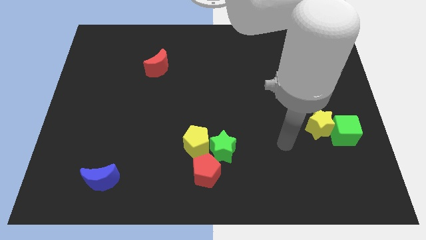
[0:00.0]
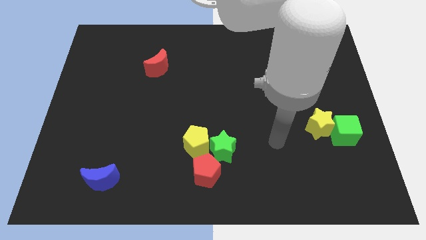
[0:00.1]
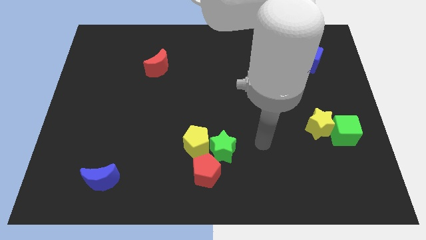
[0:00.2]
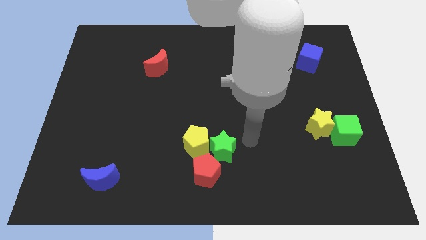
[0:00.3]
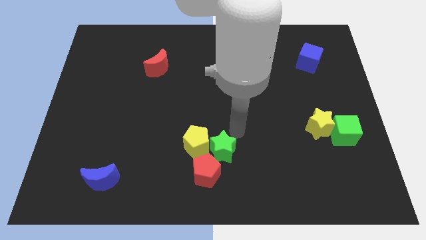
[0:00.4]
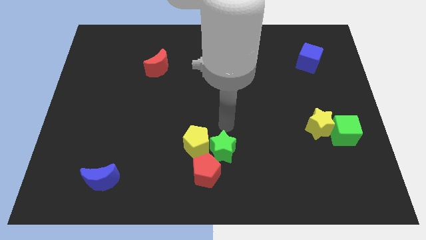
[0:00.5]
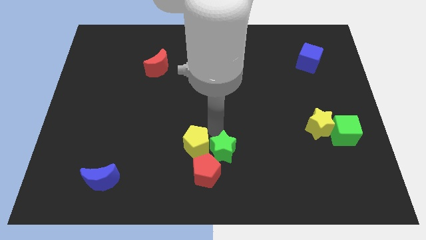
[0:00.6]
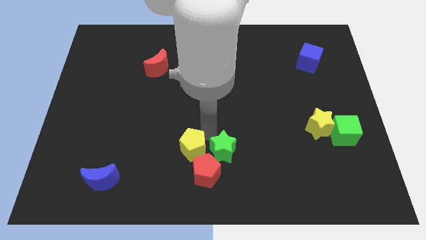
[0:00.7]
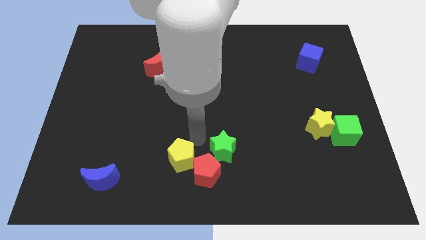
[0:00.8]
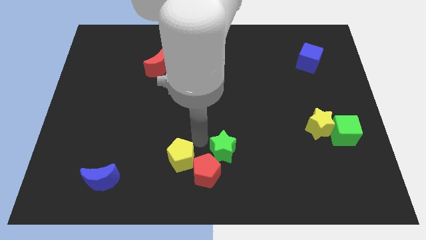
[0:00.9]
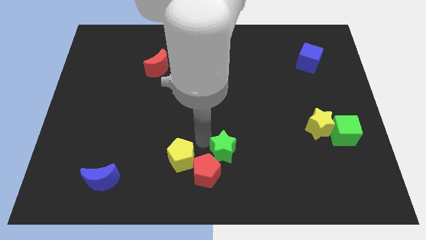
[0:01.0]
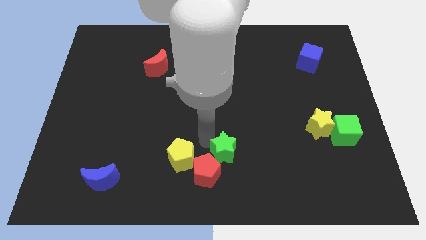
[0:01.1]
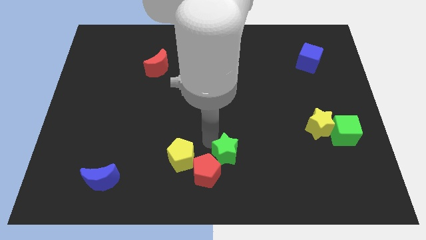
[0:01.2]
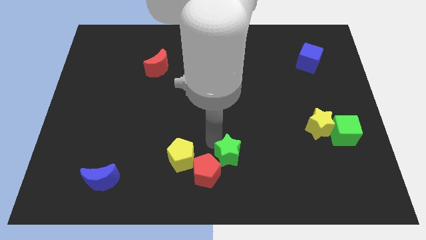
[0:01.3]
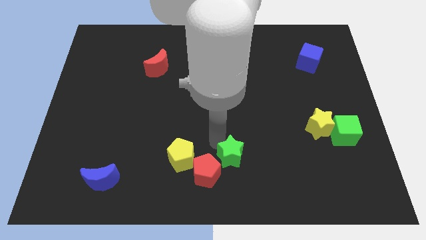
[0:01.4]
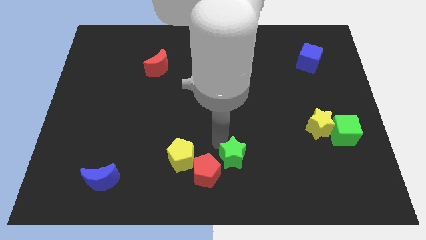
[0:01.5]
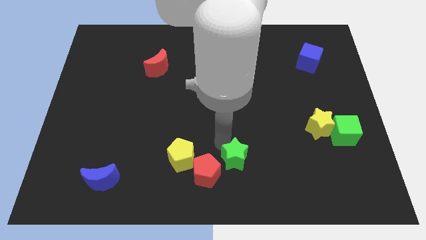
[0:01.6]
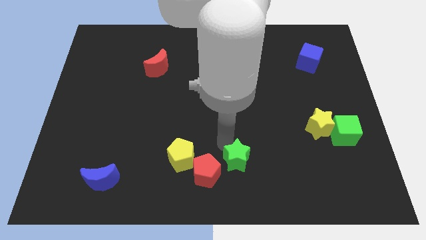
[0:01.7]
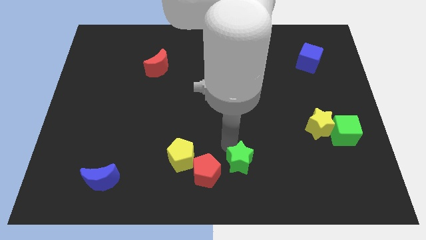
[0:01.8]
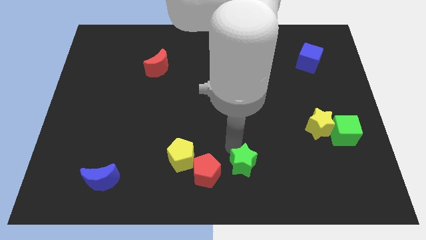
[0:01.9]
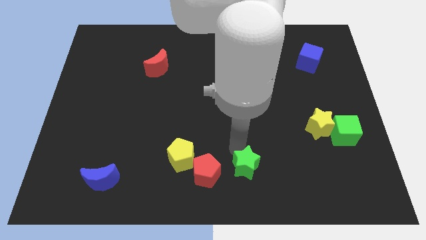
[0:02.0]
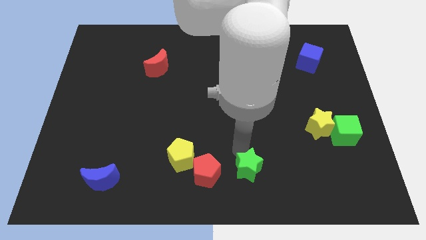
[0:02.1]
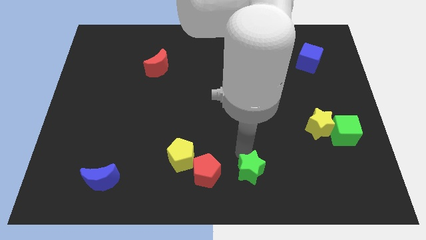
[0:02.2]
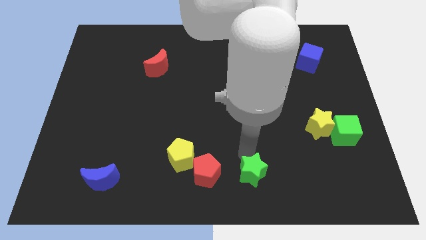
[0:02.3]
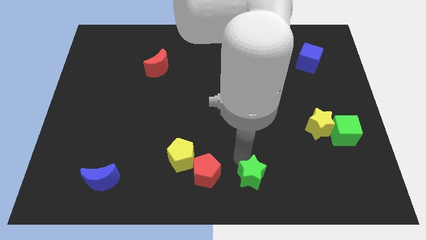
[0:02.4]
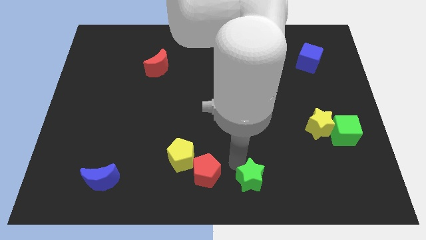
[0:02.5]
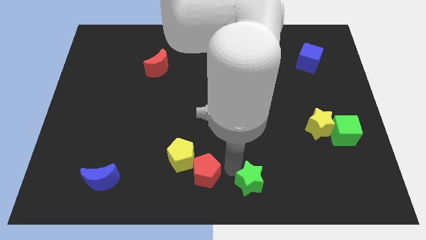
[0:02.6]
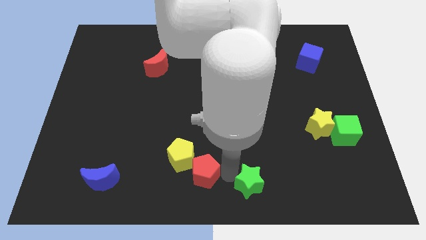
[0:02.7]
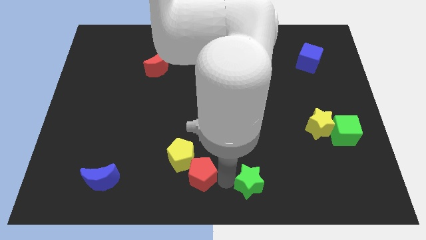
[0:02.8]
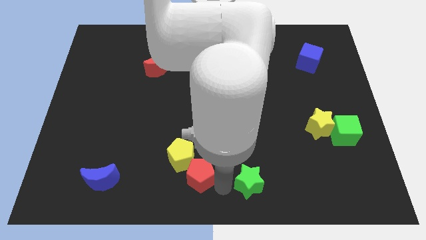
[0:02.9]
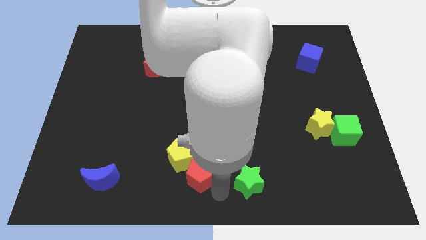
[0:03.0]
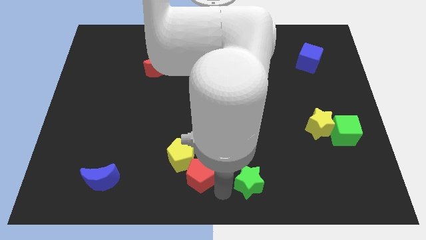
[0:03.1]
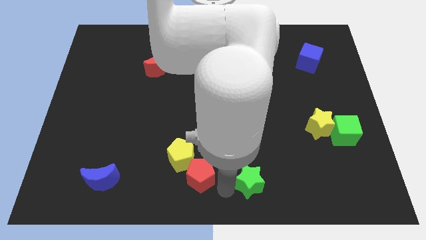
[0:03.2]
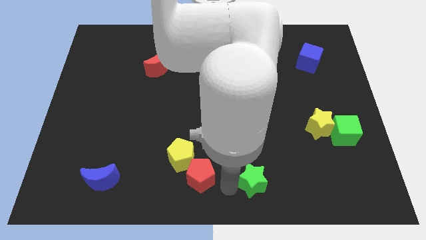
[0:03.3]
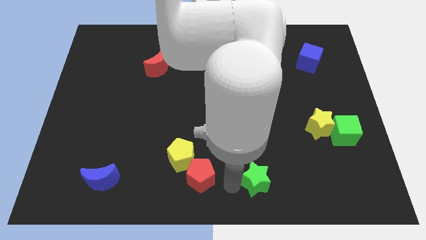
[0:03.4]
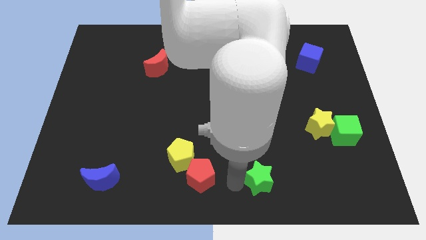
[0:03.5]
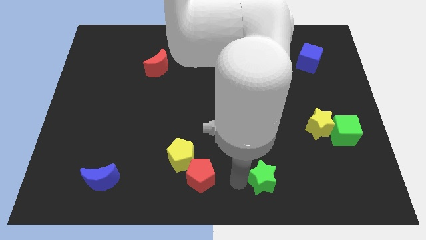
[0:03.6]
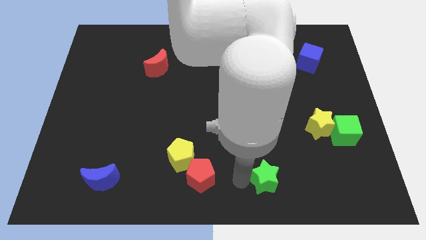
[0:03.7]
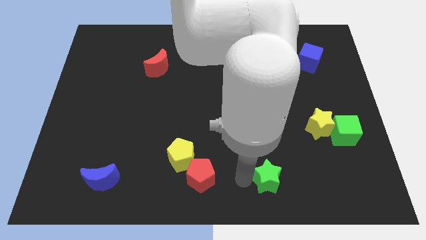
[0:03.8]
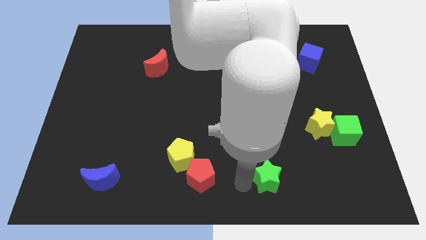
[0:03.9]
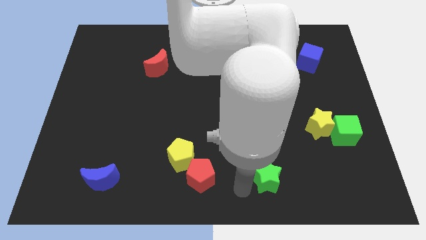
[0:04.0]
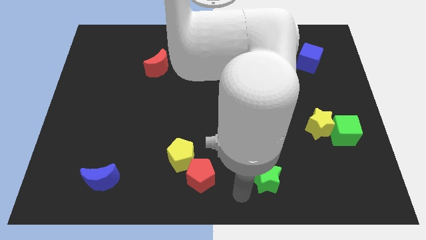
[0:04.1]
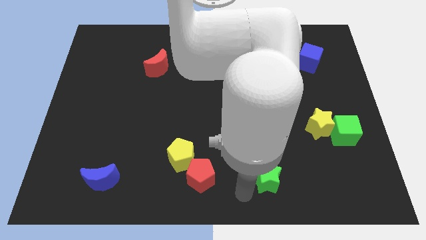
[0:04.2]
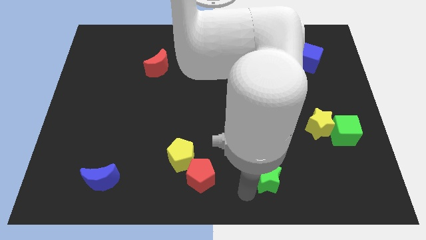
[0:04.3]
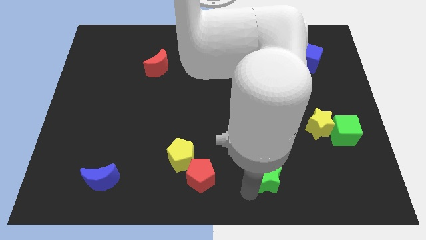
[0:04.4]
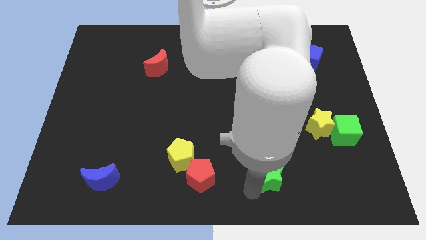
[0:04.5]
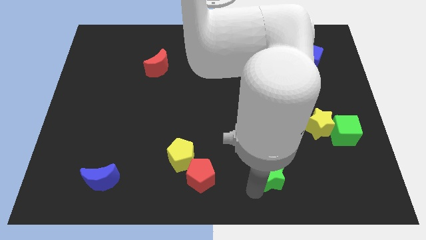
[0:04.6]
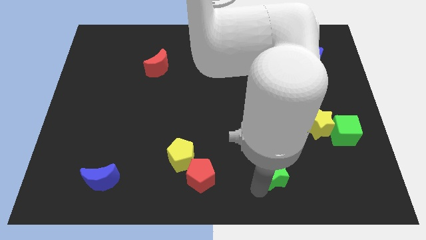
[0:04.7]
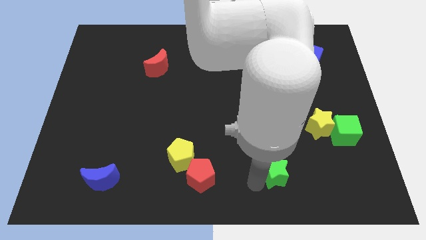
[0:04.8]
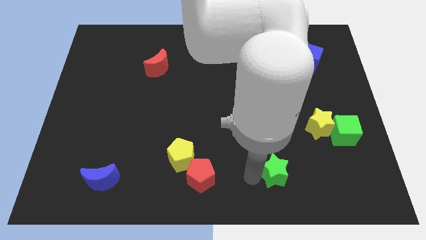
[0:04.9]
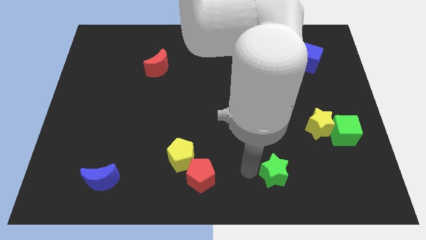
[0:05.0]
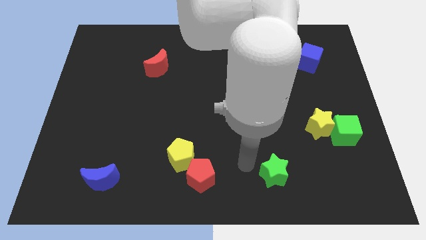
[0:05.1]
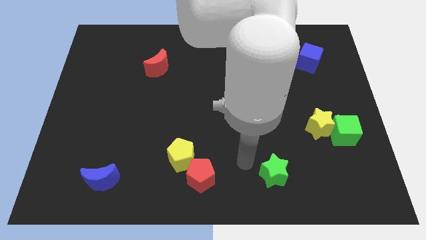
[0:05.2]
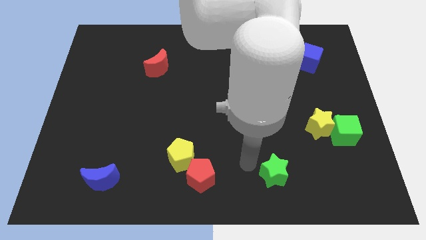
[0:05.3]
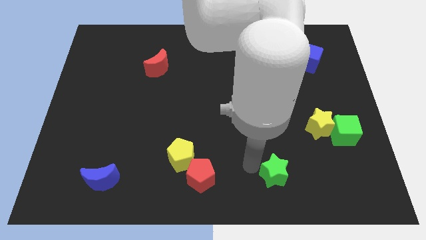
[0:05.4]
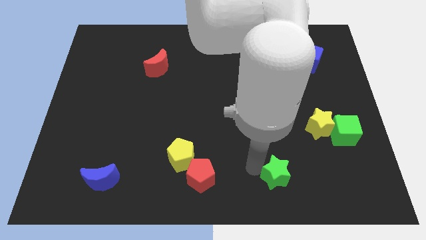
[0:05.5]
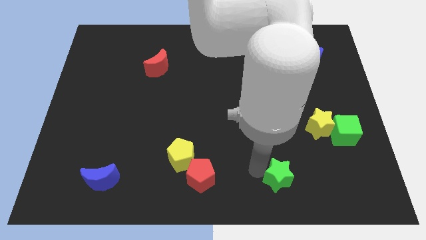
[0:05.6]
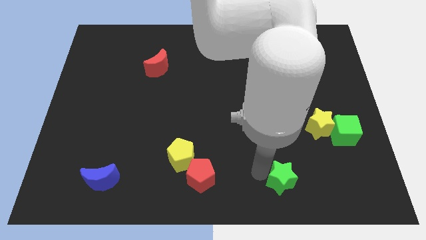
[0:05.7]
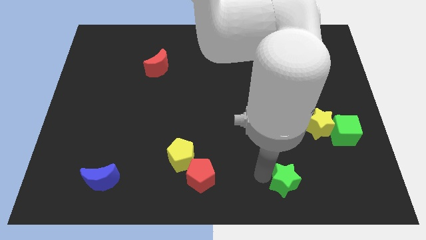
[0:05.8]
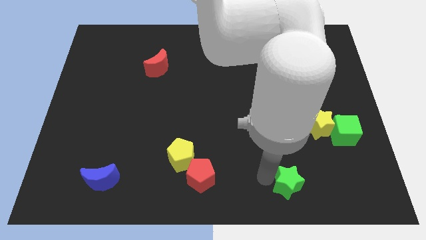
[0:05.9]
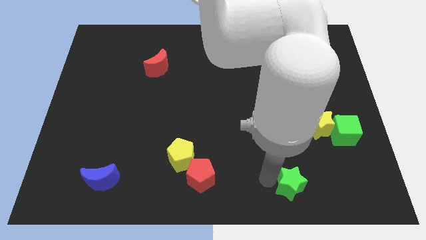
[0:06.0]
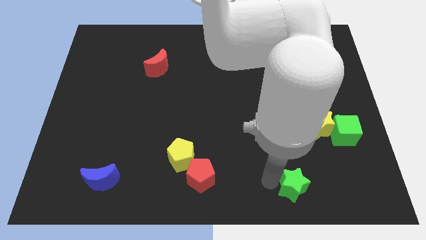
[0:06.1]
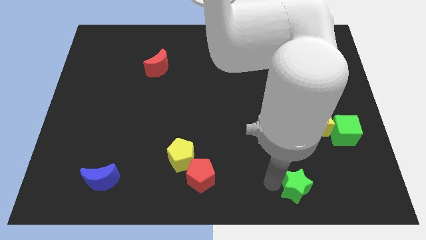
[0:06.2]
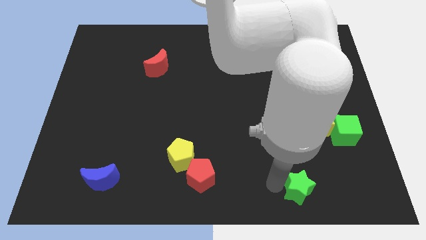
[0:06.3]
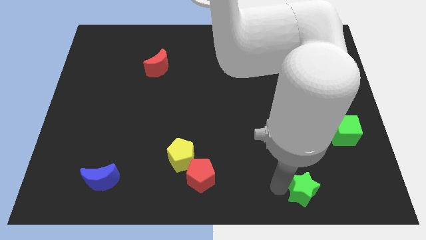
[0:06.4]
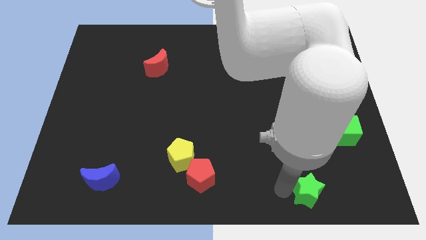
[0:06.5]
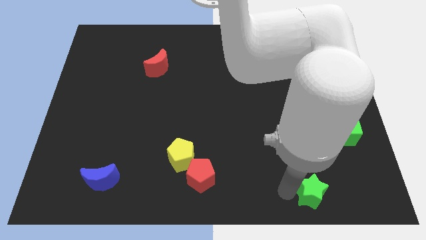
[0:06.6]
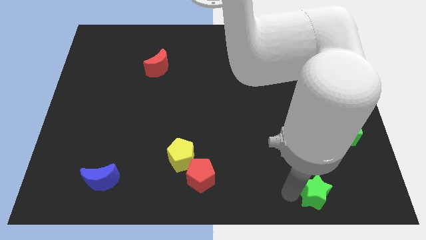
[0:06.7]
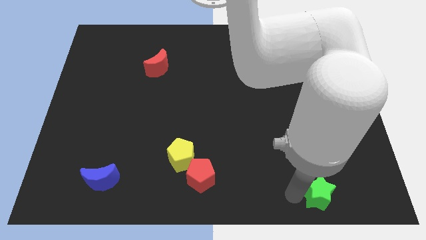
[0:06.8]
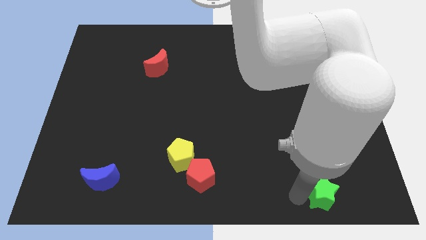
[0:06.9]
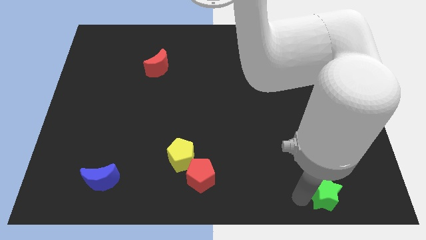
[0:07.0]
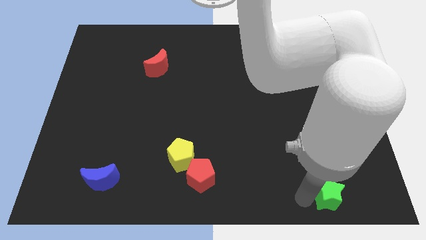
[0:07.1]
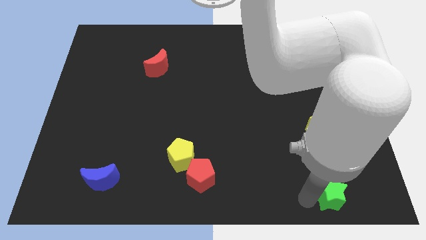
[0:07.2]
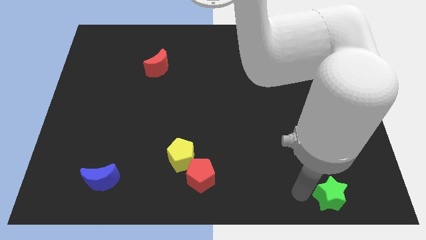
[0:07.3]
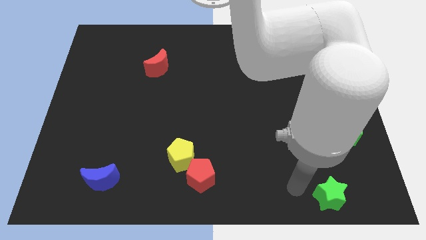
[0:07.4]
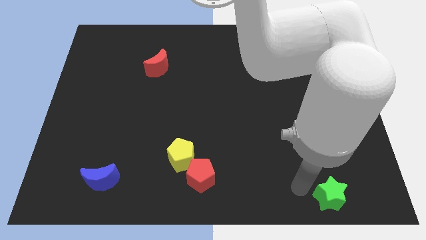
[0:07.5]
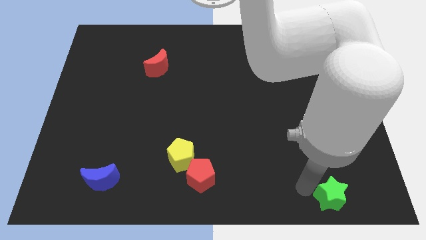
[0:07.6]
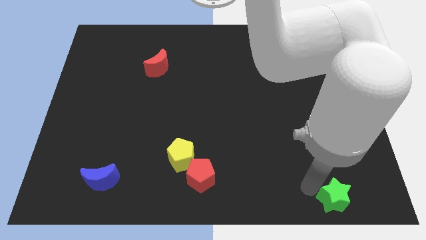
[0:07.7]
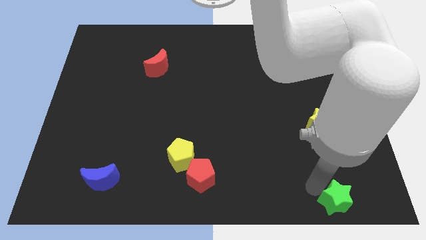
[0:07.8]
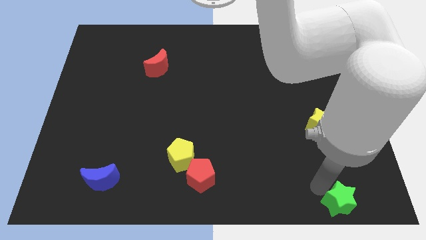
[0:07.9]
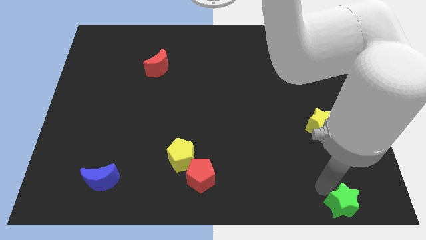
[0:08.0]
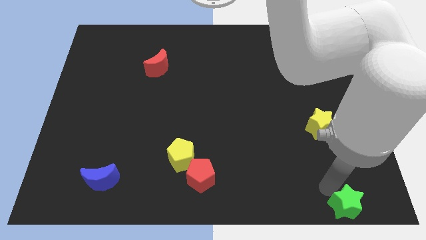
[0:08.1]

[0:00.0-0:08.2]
move the green star to the lower right corner
